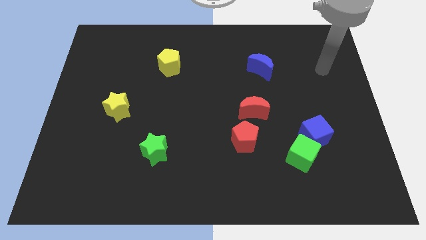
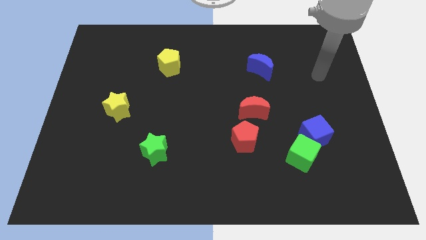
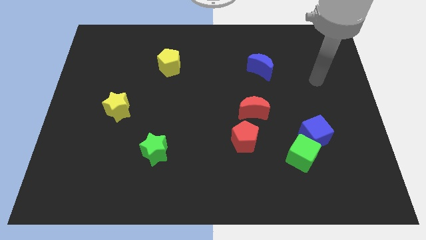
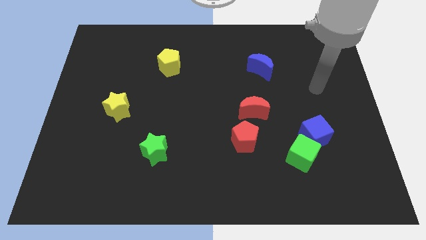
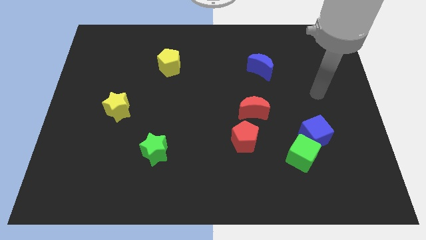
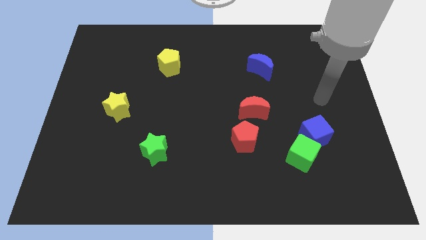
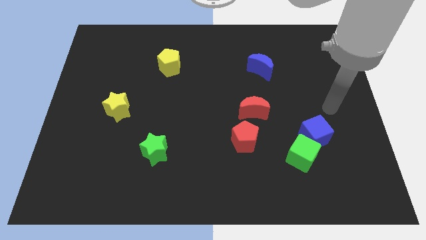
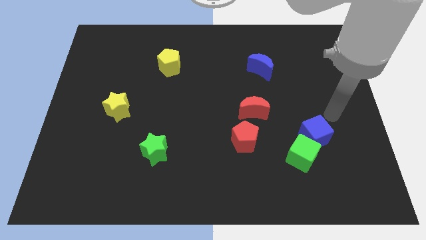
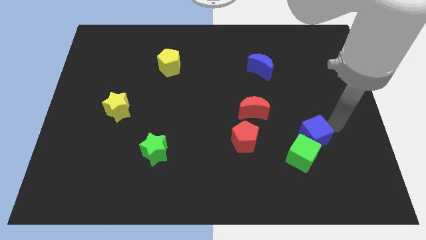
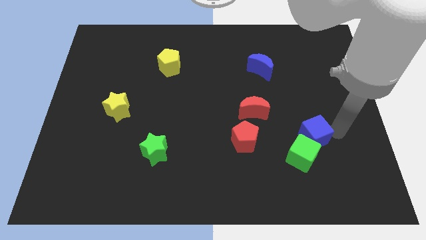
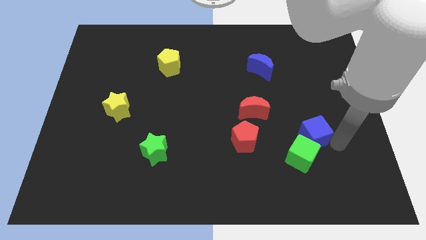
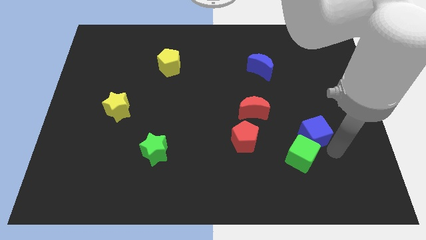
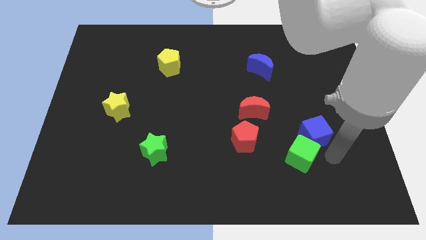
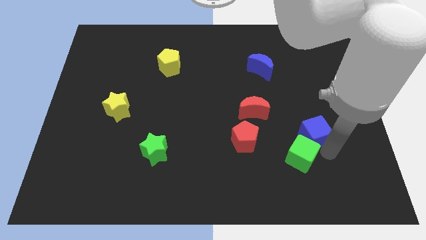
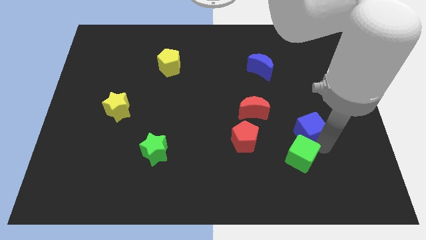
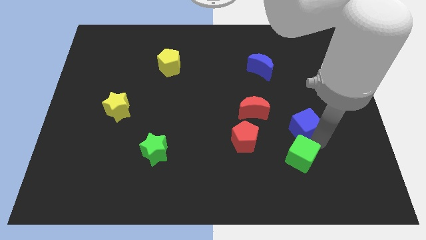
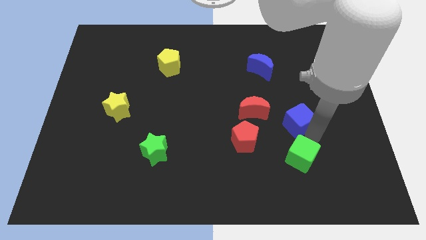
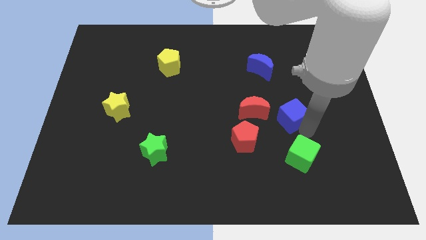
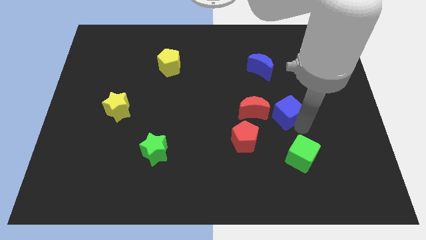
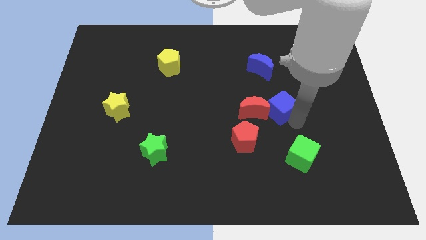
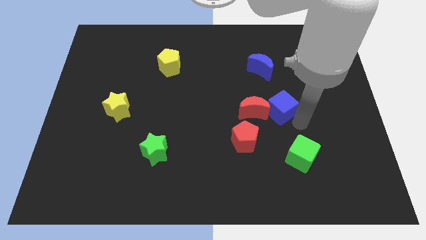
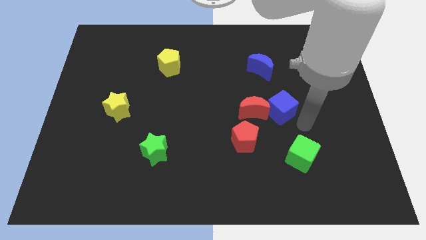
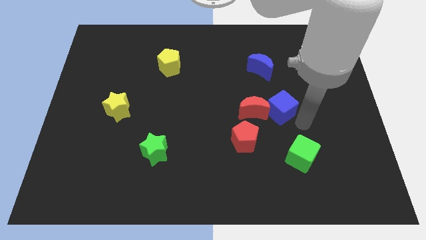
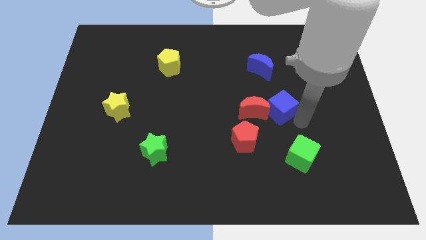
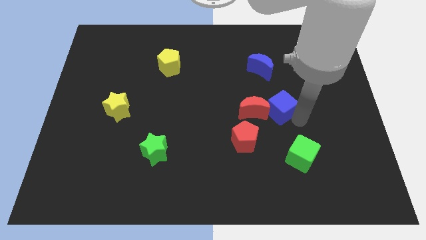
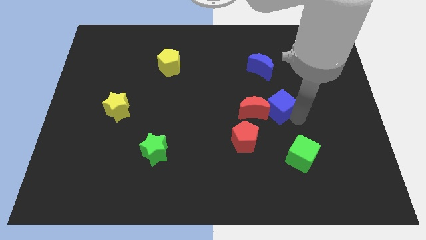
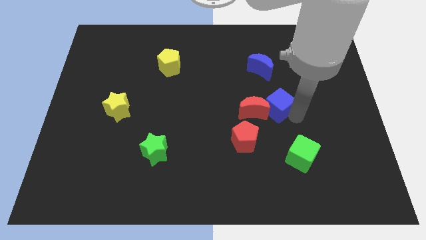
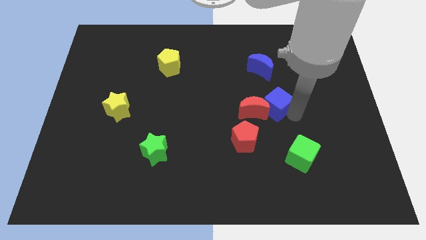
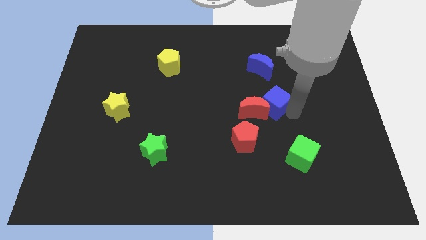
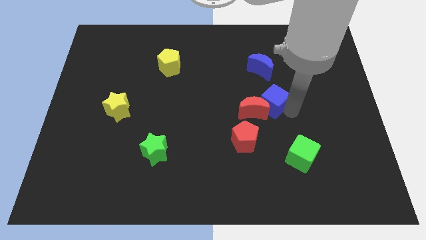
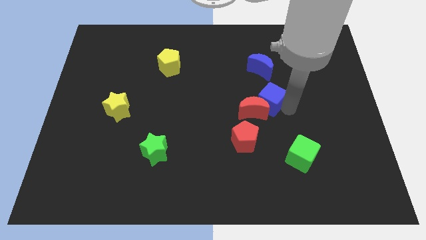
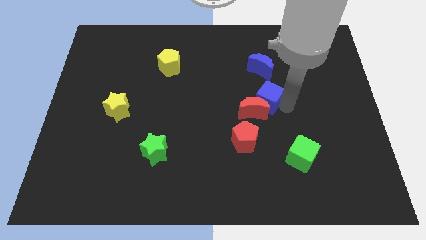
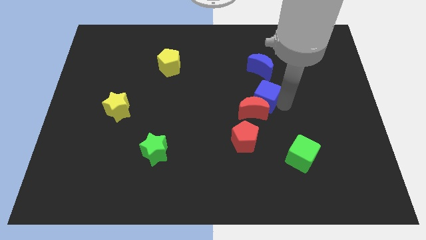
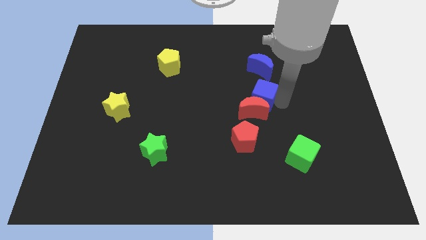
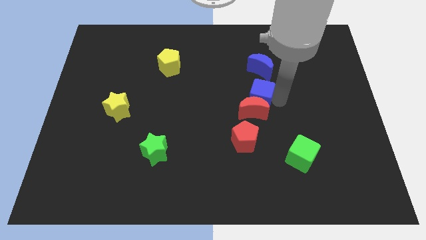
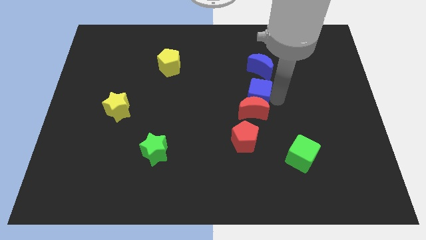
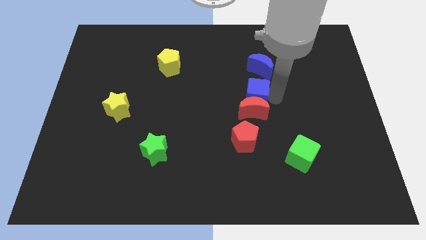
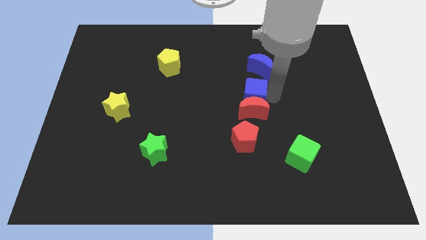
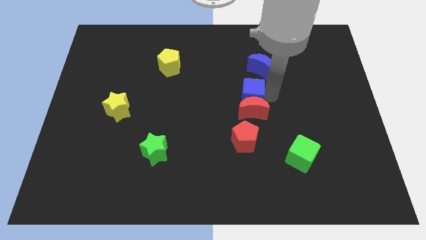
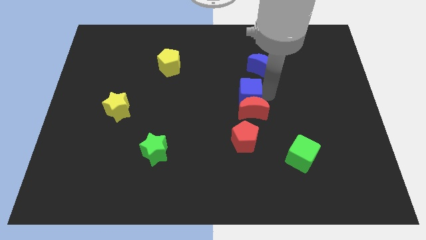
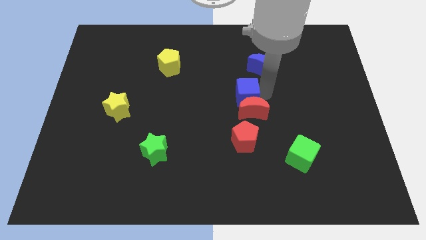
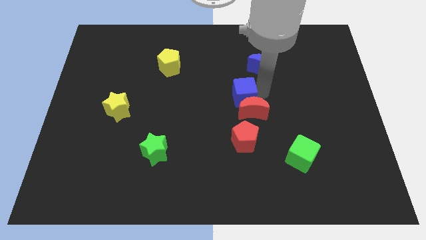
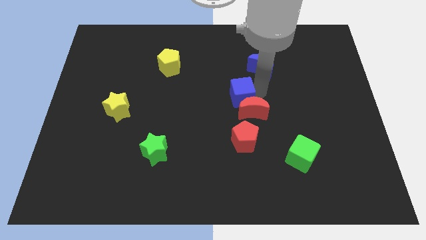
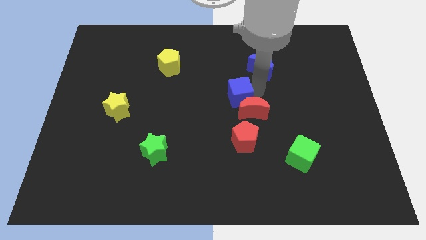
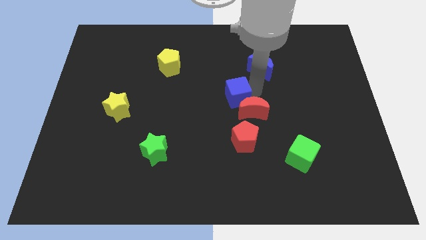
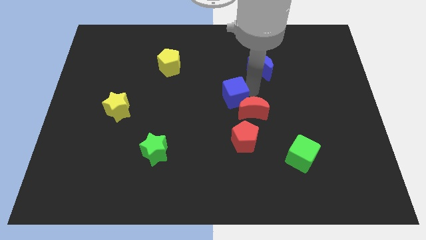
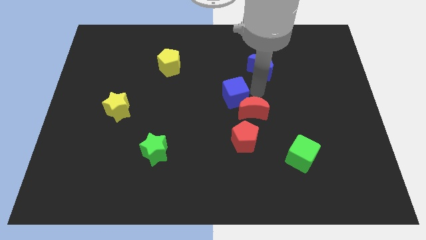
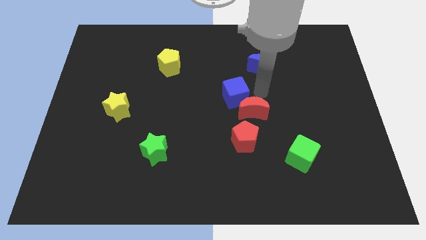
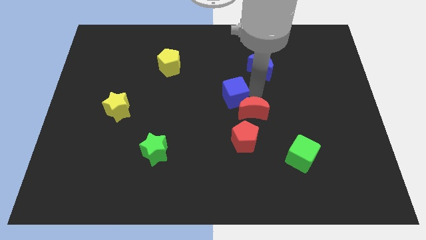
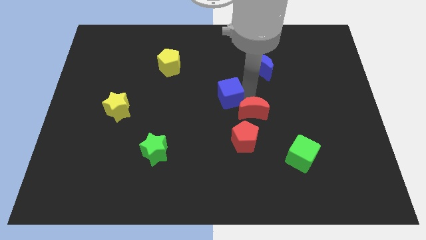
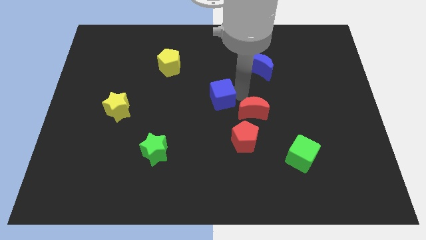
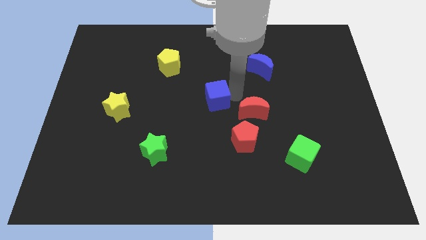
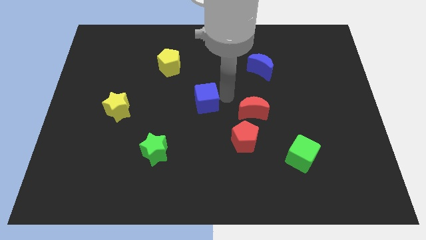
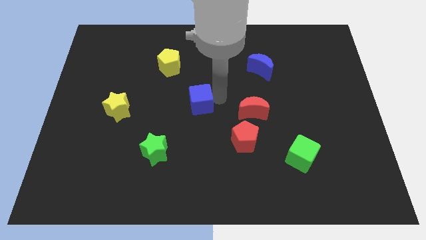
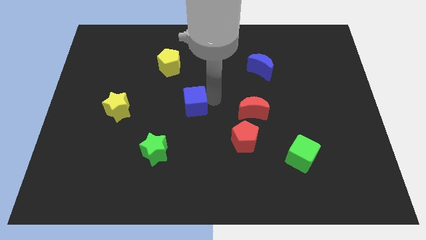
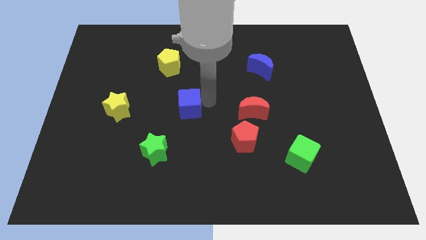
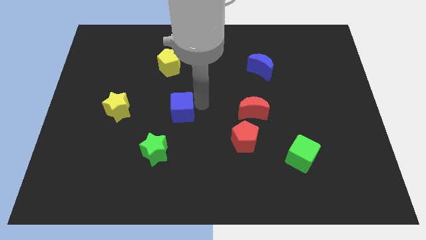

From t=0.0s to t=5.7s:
move the blue cube right of the yellow star

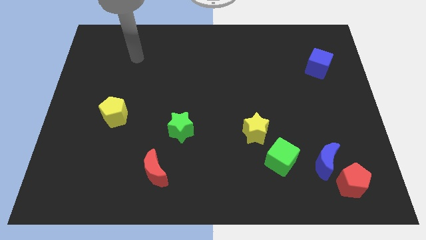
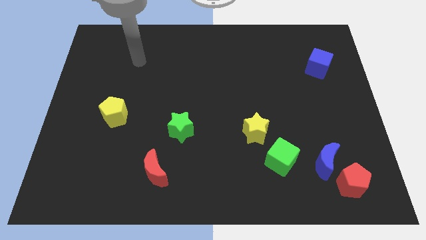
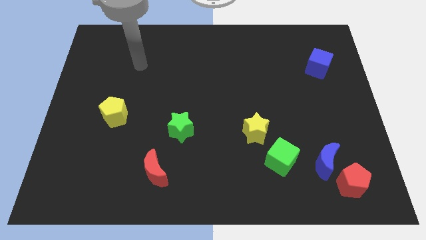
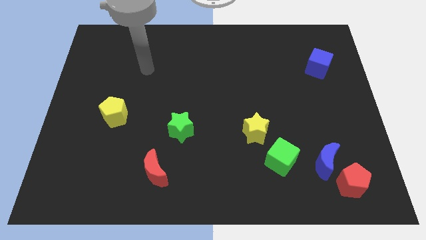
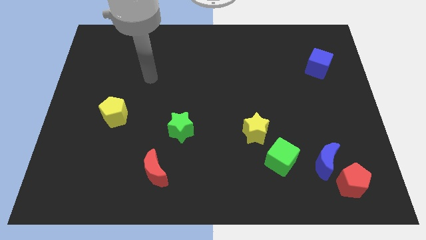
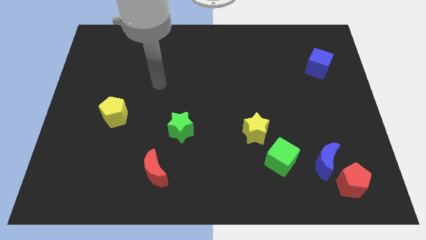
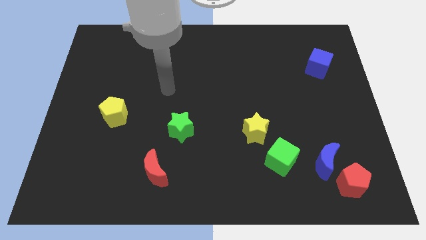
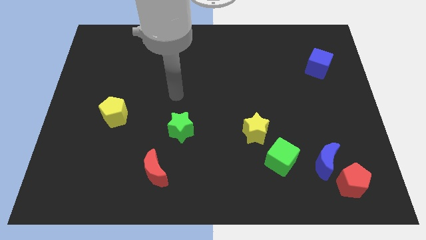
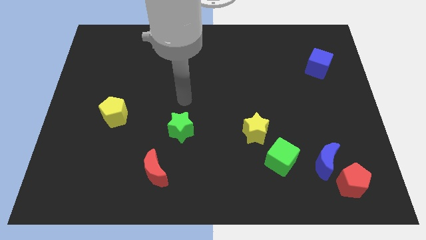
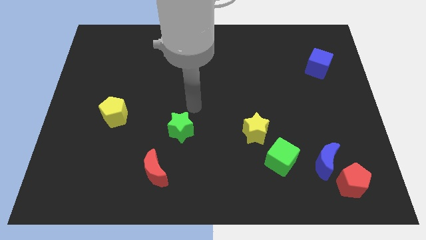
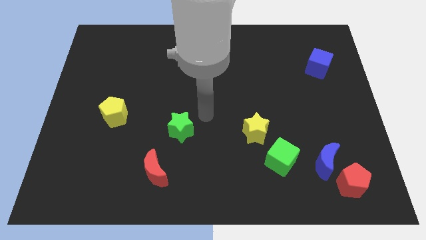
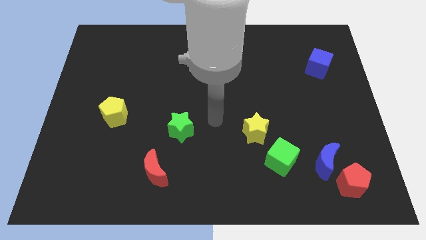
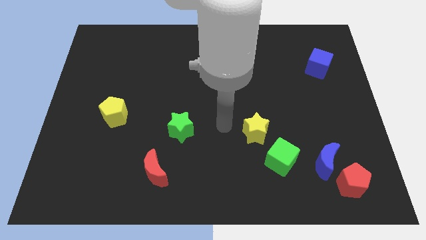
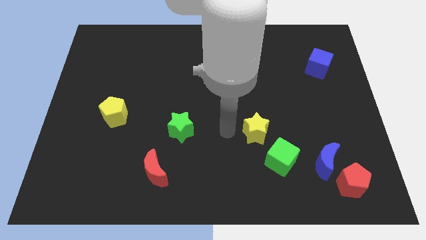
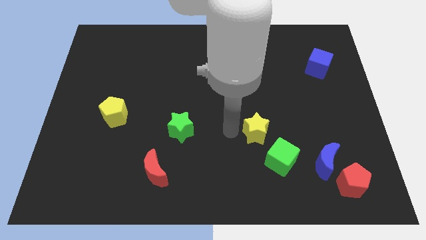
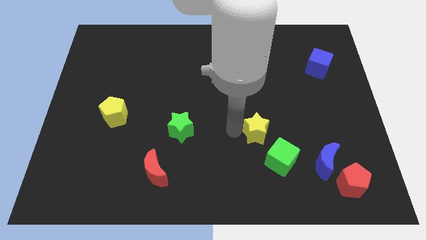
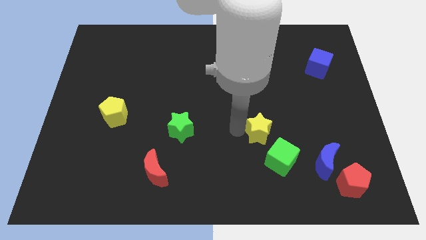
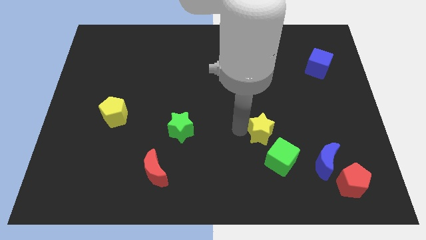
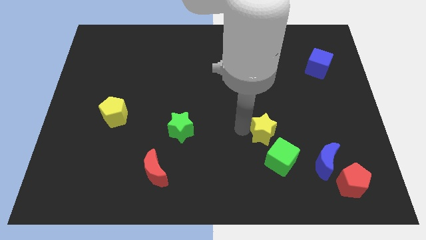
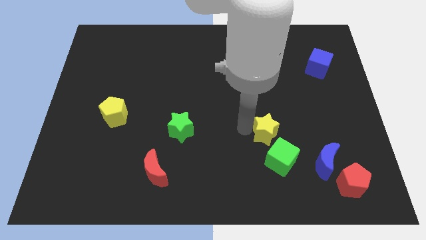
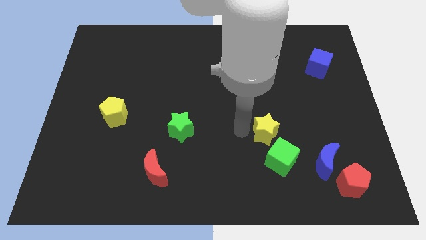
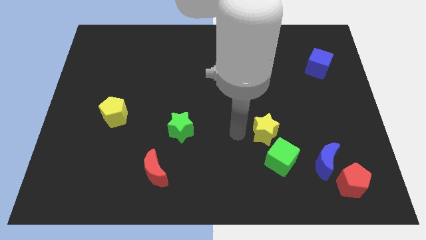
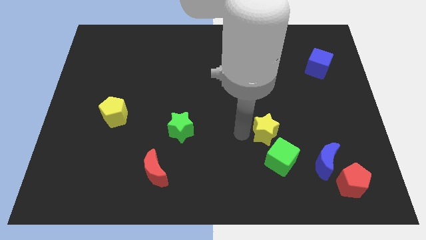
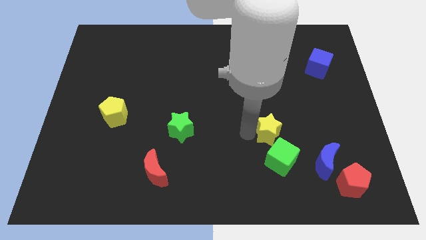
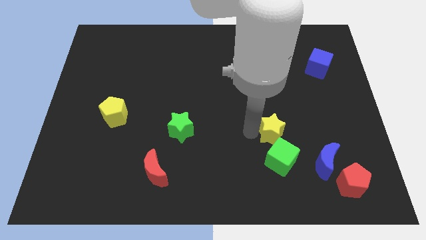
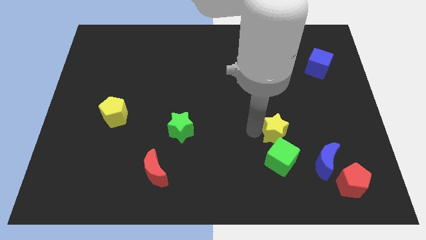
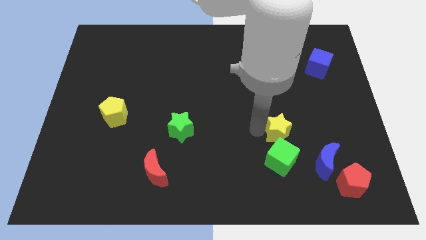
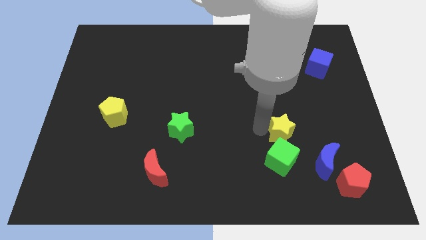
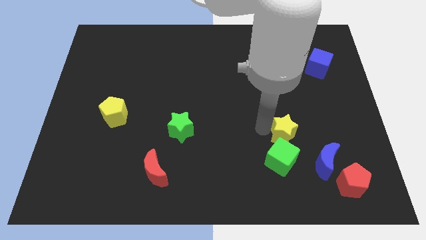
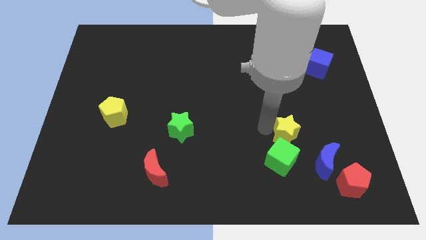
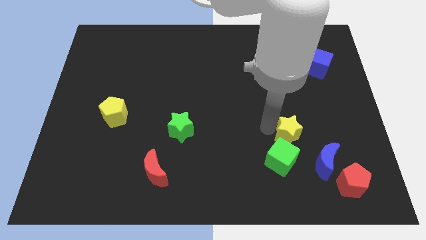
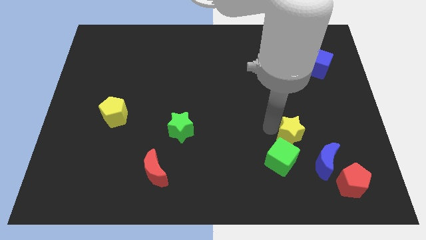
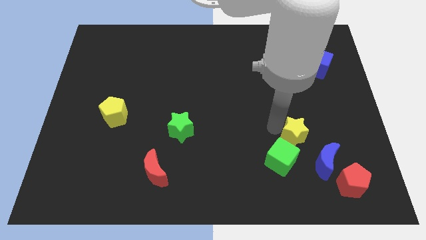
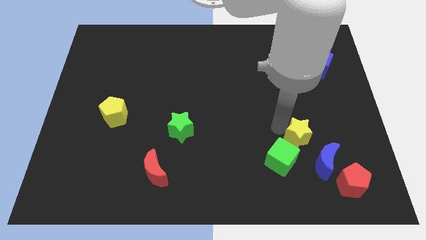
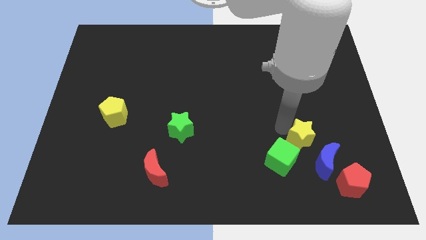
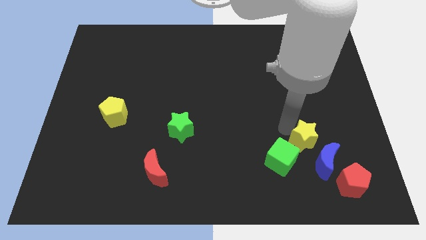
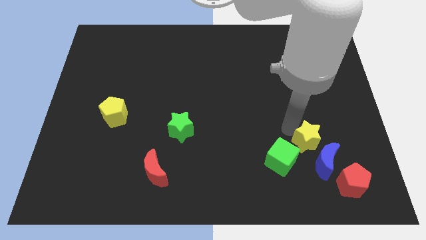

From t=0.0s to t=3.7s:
move the yellow star diagonally up and to the left of the red pentagon
